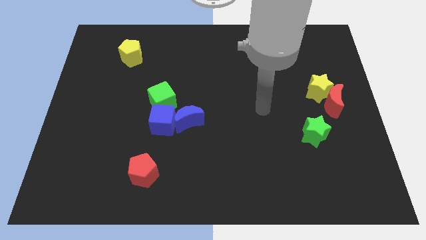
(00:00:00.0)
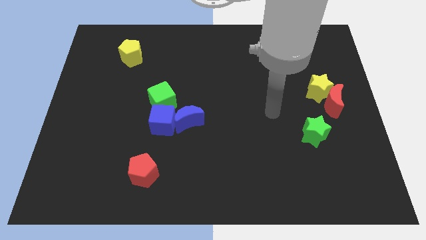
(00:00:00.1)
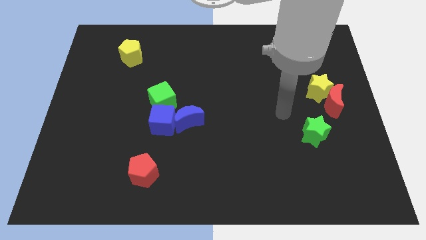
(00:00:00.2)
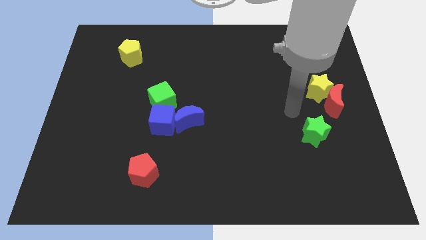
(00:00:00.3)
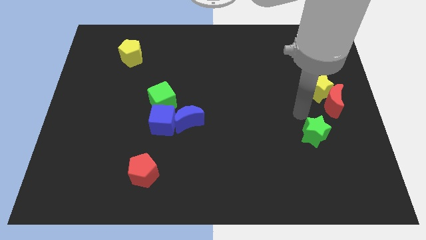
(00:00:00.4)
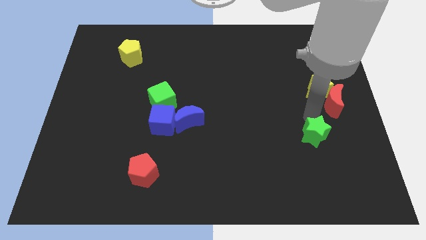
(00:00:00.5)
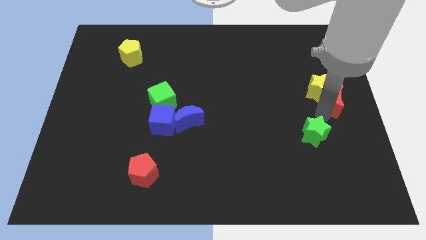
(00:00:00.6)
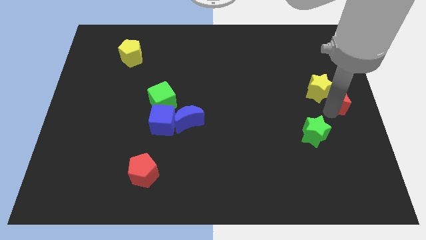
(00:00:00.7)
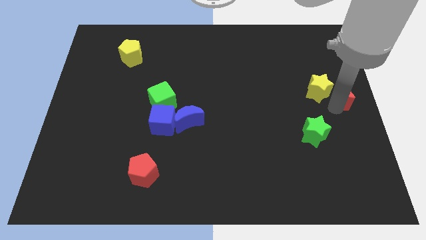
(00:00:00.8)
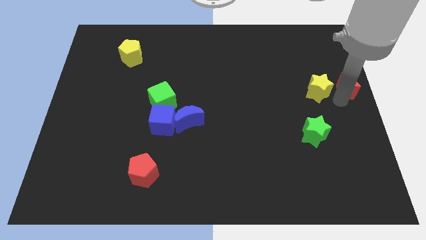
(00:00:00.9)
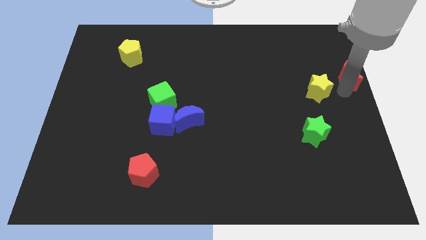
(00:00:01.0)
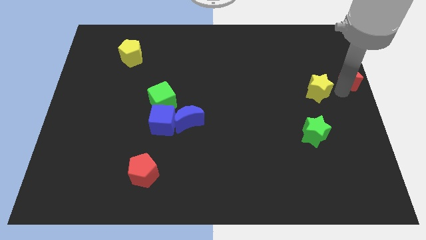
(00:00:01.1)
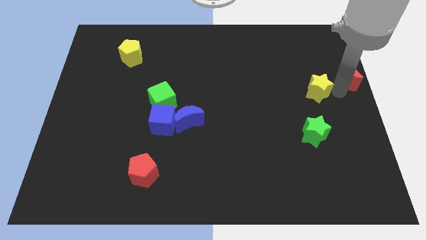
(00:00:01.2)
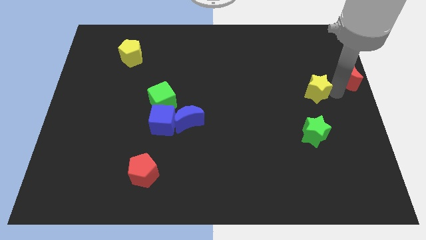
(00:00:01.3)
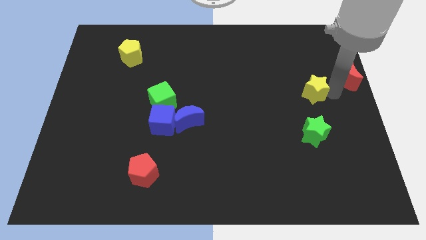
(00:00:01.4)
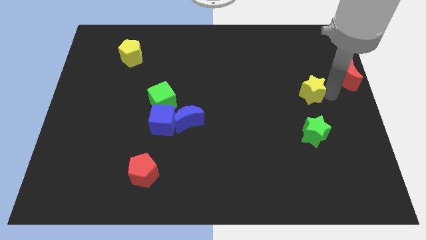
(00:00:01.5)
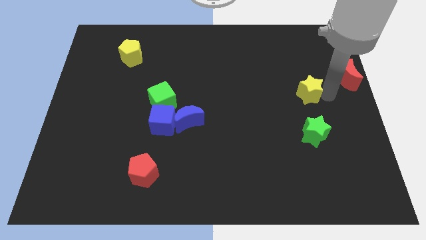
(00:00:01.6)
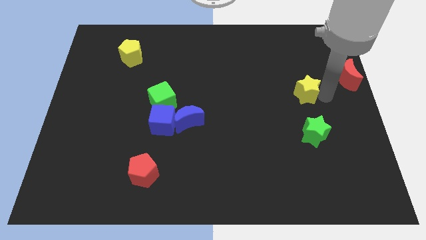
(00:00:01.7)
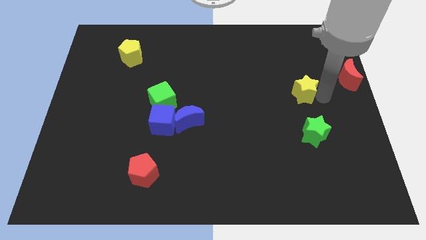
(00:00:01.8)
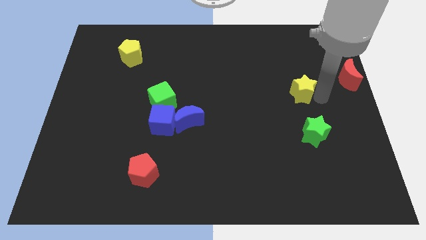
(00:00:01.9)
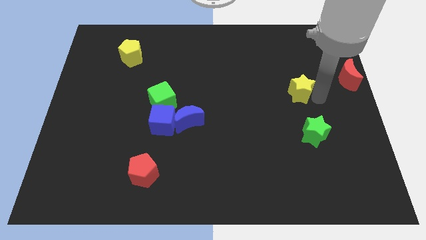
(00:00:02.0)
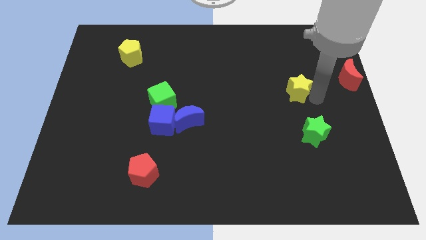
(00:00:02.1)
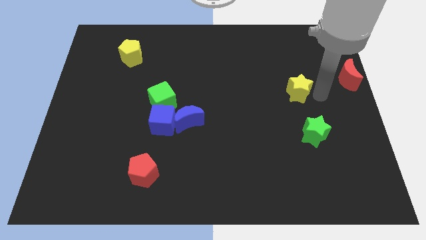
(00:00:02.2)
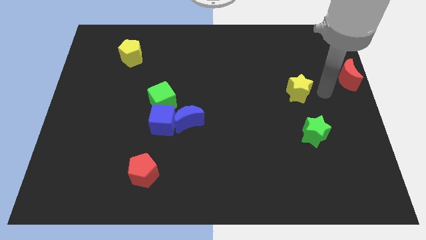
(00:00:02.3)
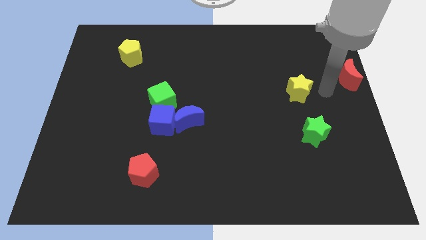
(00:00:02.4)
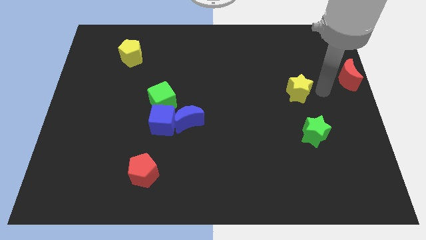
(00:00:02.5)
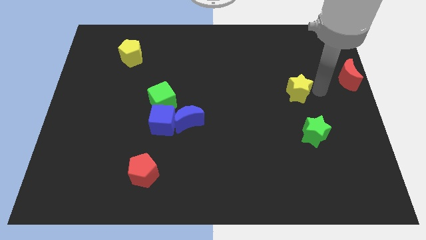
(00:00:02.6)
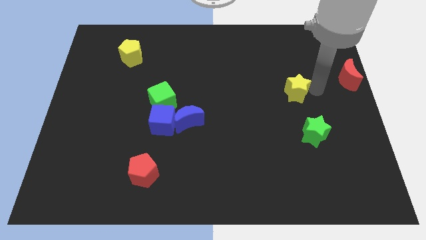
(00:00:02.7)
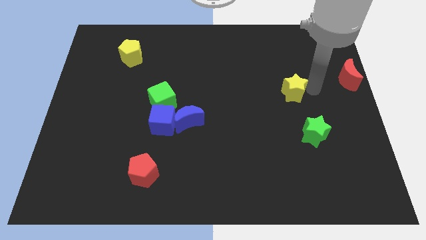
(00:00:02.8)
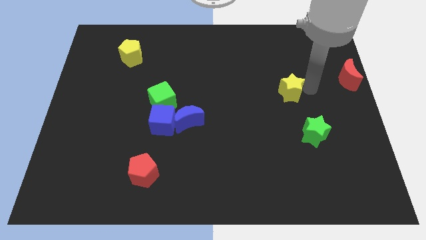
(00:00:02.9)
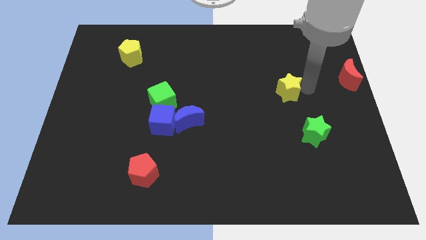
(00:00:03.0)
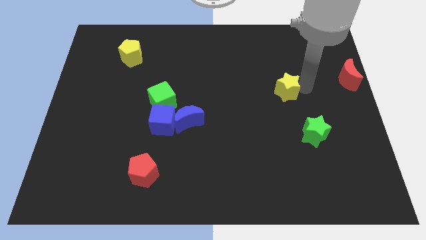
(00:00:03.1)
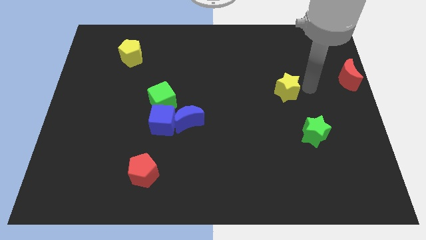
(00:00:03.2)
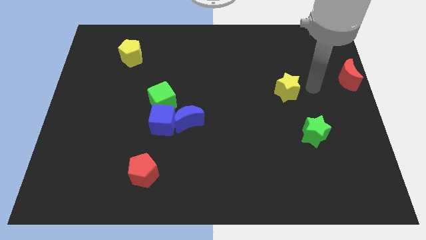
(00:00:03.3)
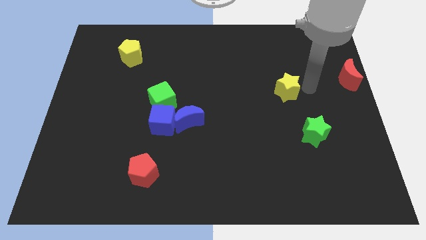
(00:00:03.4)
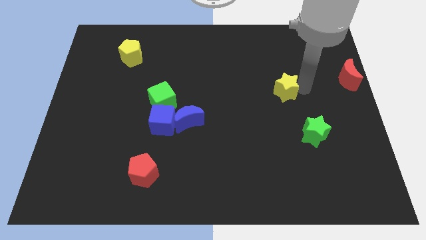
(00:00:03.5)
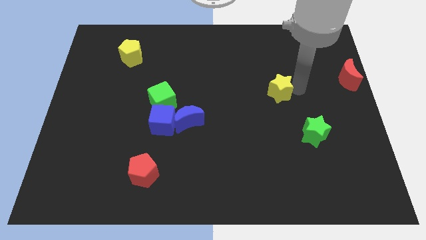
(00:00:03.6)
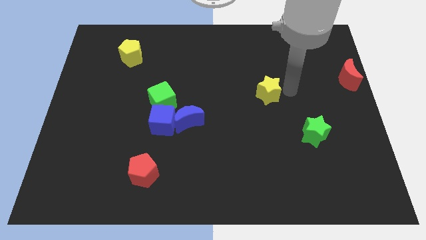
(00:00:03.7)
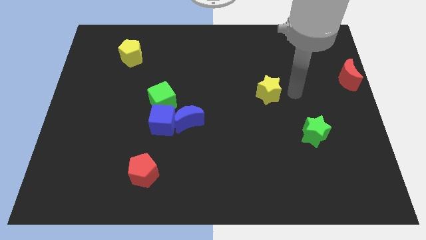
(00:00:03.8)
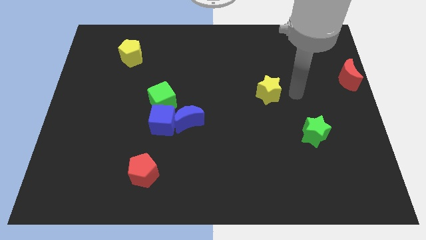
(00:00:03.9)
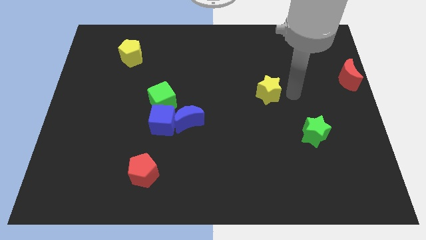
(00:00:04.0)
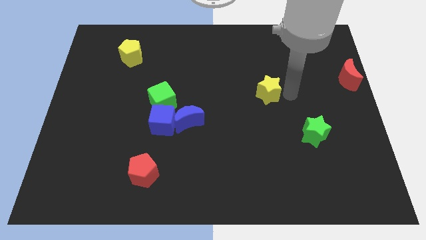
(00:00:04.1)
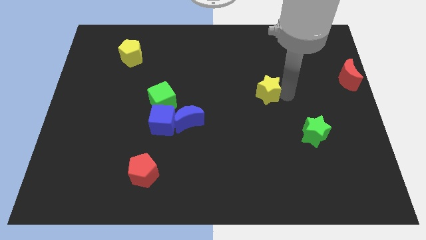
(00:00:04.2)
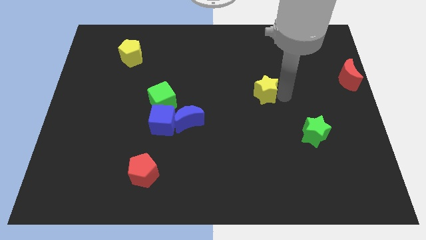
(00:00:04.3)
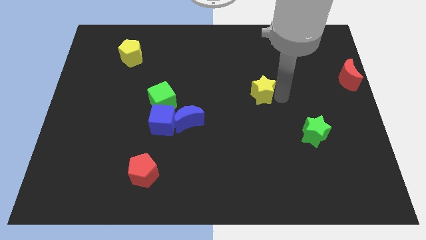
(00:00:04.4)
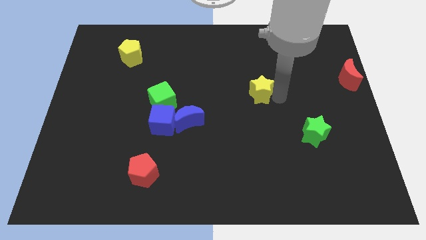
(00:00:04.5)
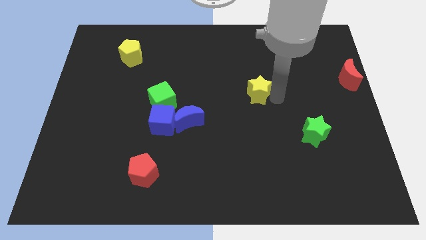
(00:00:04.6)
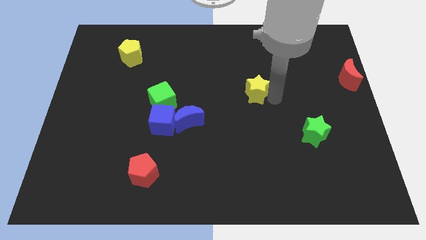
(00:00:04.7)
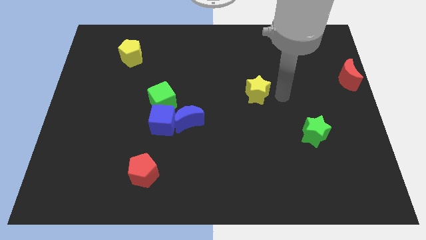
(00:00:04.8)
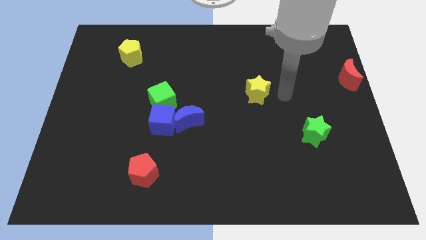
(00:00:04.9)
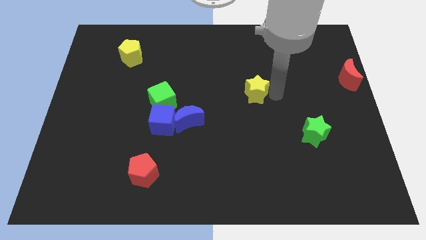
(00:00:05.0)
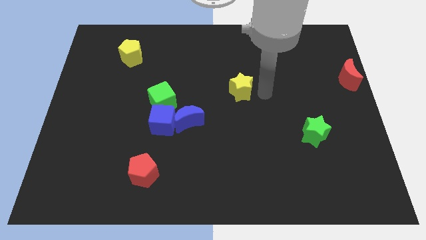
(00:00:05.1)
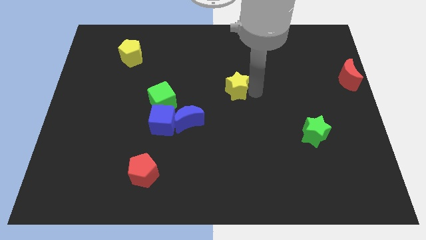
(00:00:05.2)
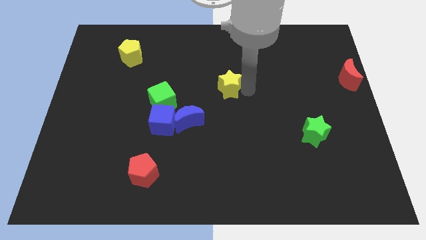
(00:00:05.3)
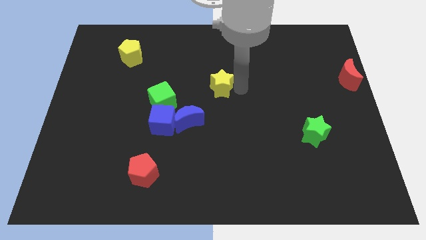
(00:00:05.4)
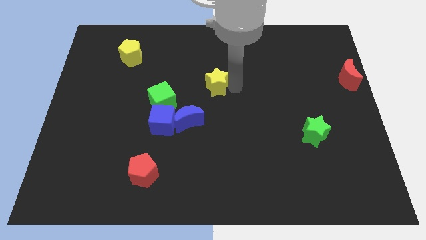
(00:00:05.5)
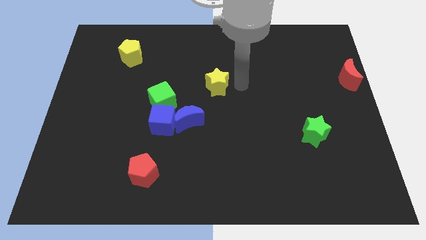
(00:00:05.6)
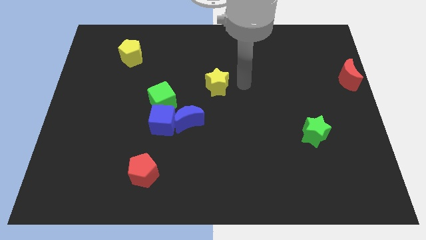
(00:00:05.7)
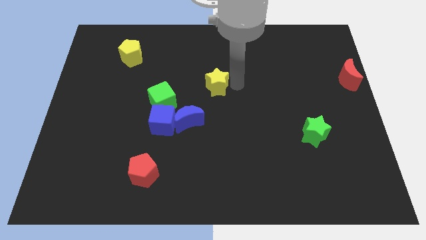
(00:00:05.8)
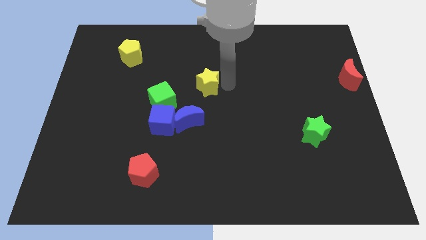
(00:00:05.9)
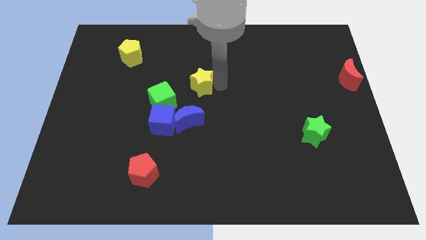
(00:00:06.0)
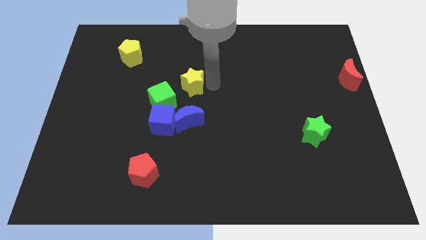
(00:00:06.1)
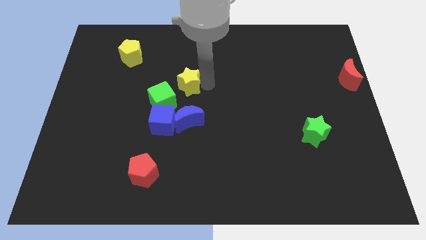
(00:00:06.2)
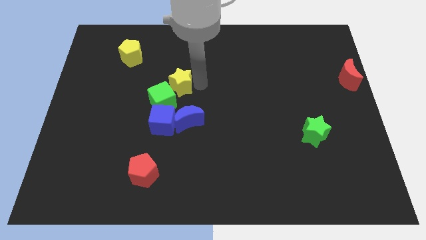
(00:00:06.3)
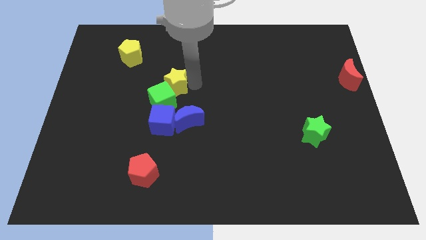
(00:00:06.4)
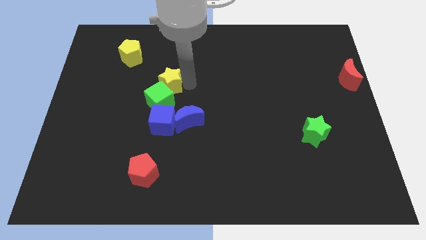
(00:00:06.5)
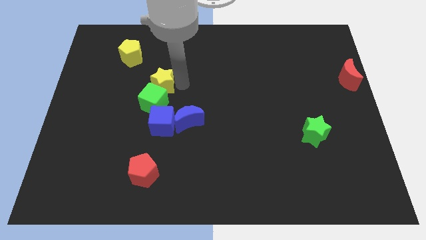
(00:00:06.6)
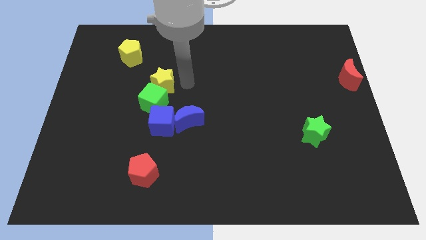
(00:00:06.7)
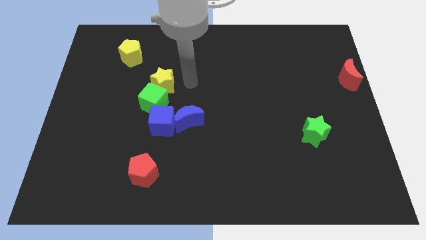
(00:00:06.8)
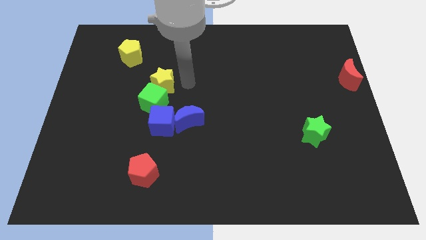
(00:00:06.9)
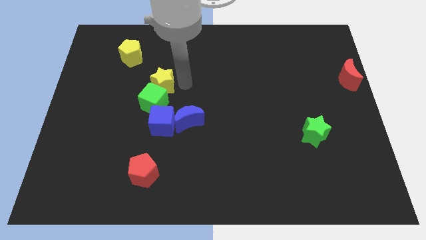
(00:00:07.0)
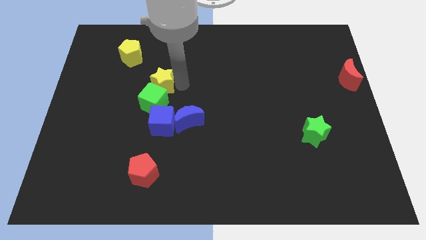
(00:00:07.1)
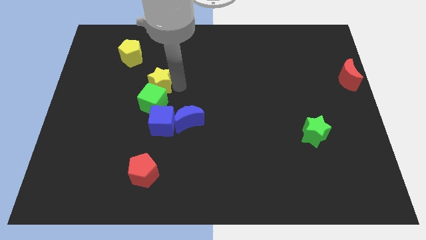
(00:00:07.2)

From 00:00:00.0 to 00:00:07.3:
push the yellow star to the top left of the green cube
